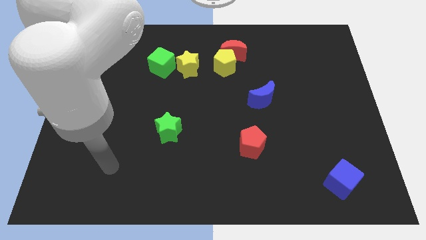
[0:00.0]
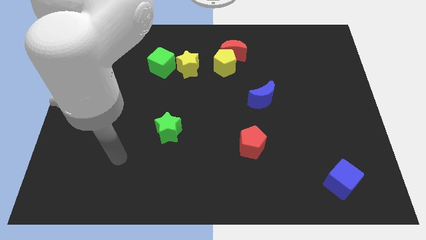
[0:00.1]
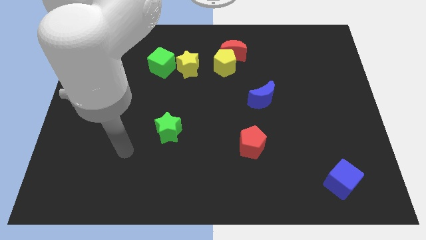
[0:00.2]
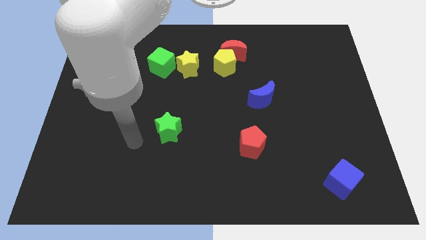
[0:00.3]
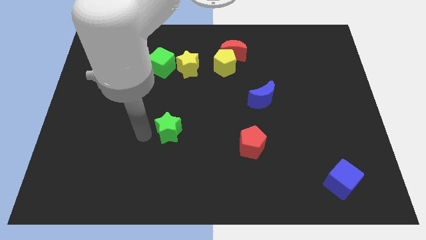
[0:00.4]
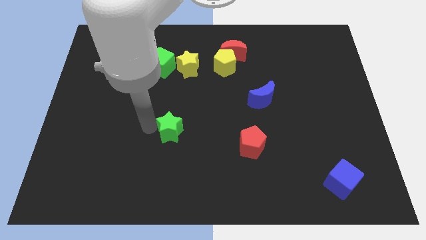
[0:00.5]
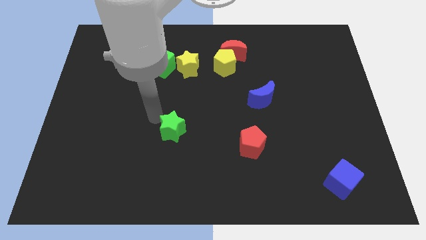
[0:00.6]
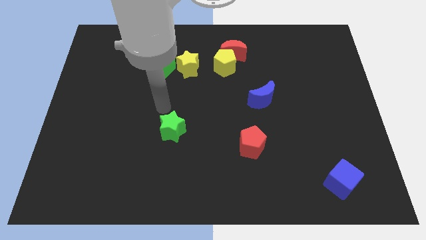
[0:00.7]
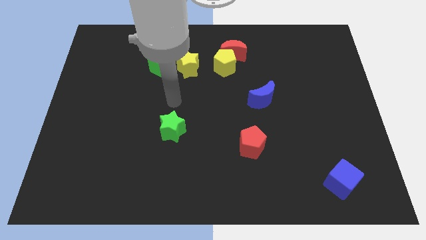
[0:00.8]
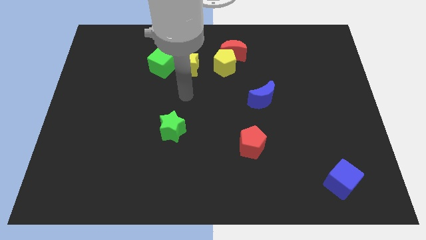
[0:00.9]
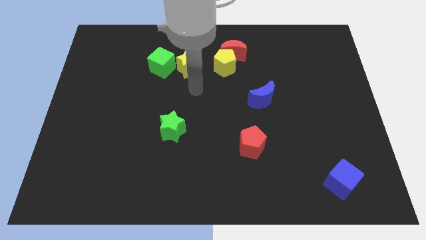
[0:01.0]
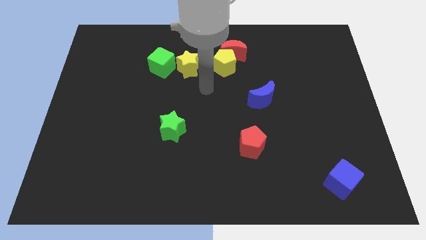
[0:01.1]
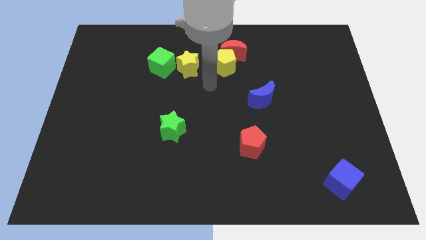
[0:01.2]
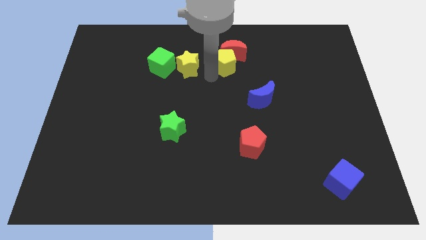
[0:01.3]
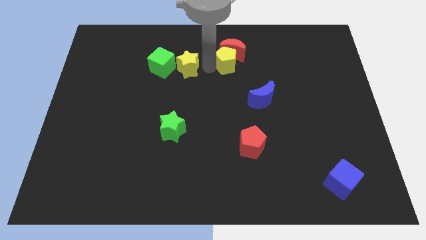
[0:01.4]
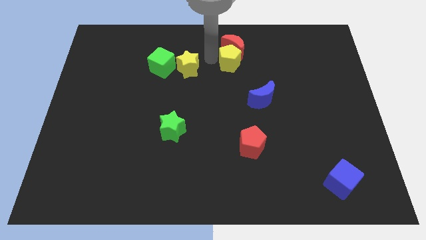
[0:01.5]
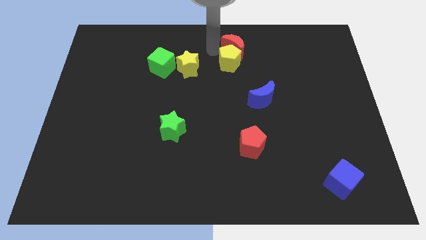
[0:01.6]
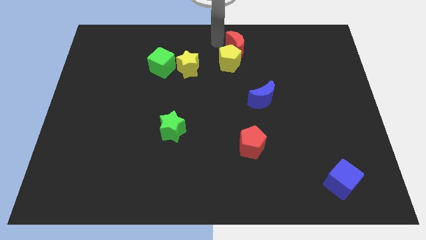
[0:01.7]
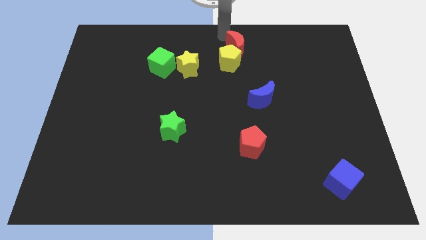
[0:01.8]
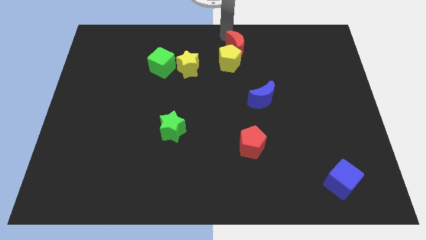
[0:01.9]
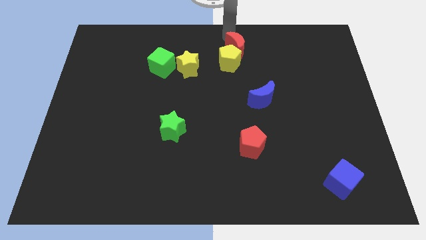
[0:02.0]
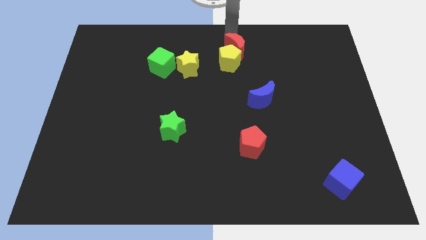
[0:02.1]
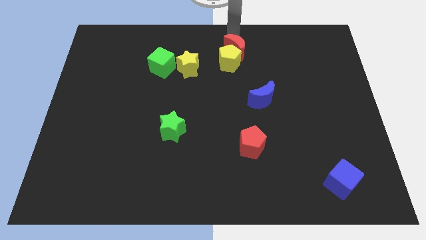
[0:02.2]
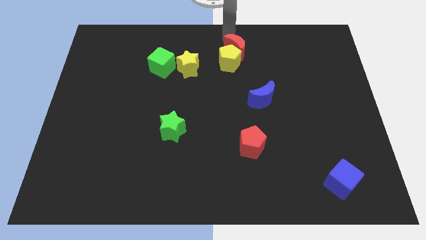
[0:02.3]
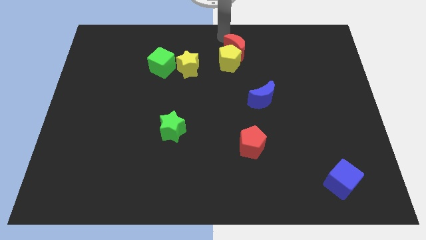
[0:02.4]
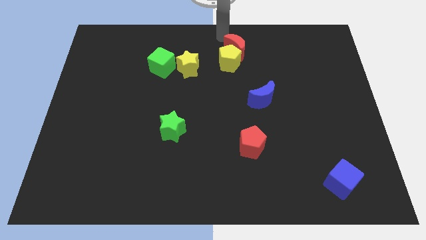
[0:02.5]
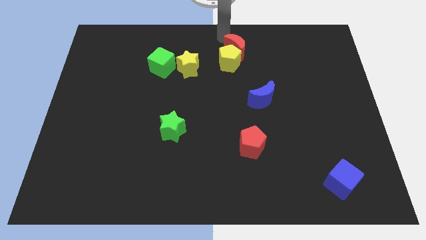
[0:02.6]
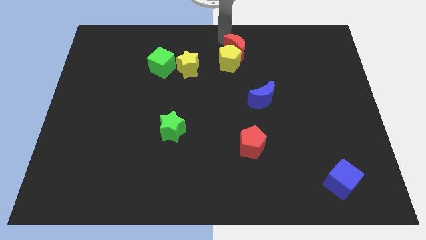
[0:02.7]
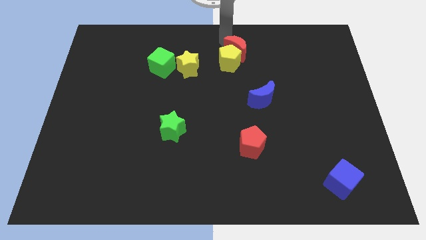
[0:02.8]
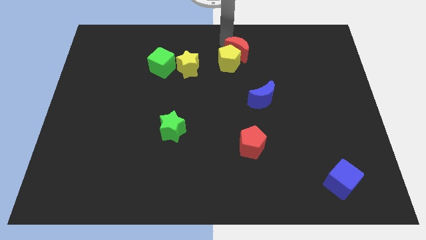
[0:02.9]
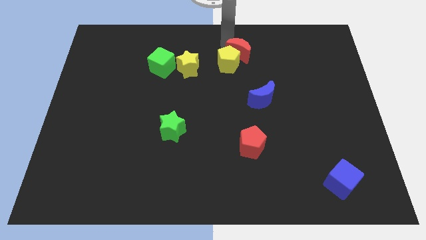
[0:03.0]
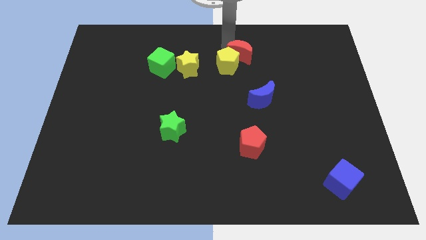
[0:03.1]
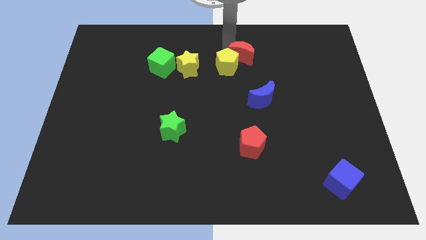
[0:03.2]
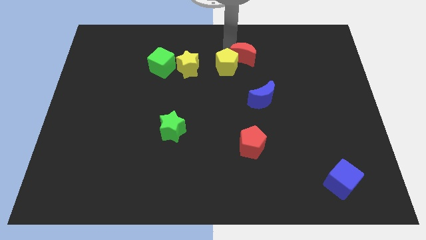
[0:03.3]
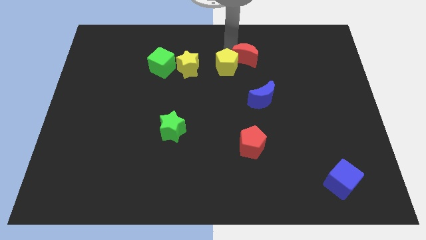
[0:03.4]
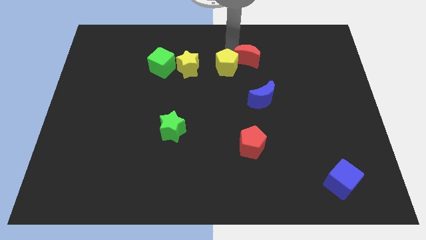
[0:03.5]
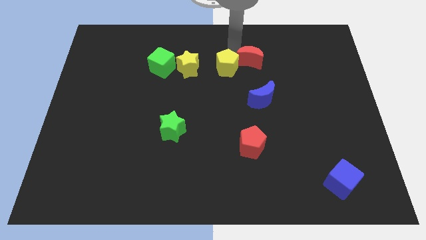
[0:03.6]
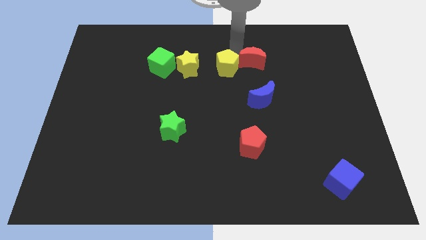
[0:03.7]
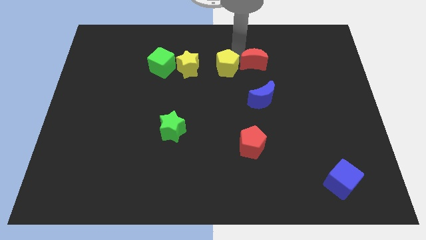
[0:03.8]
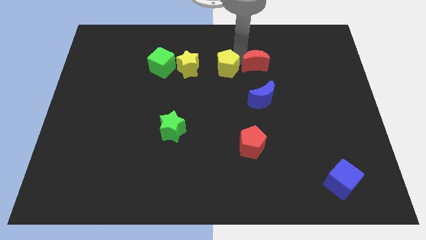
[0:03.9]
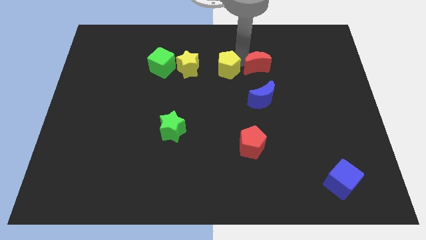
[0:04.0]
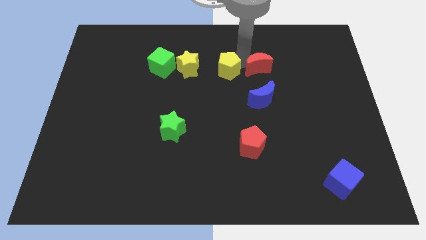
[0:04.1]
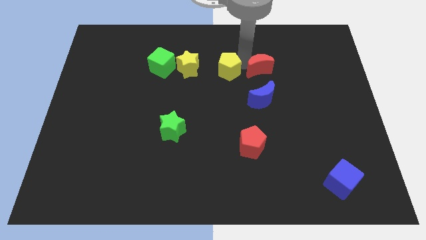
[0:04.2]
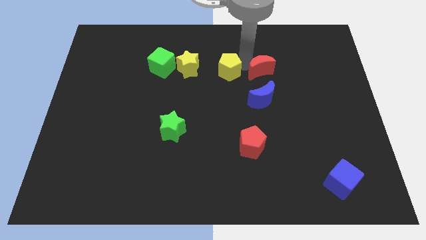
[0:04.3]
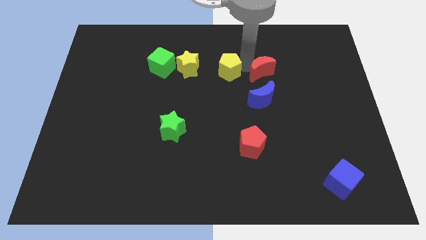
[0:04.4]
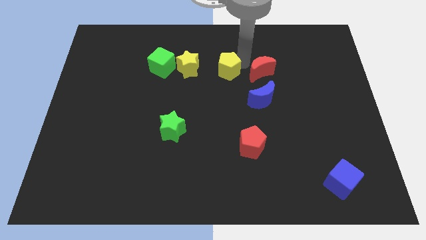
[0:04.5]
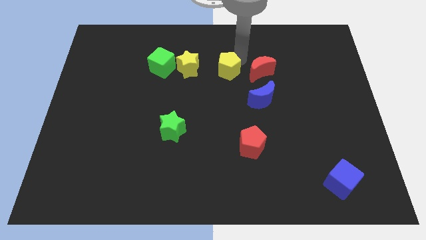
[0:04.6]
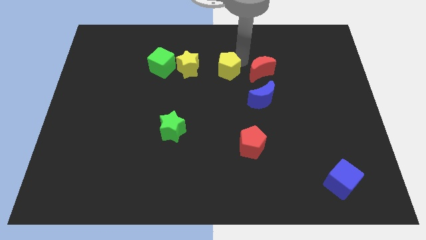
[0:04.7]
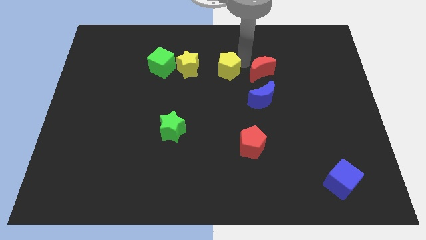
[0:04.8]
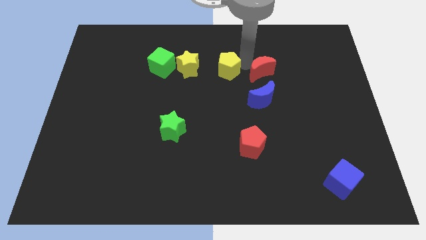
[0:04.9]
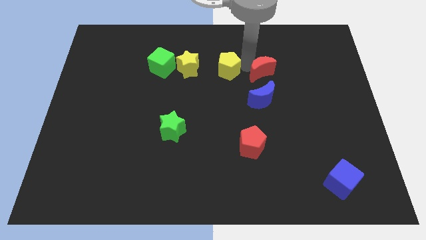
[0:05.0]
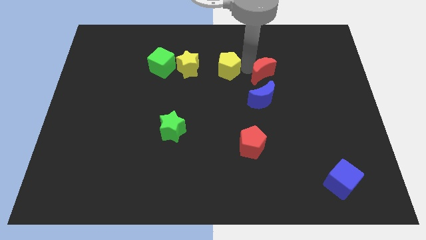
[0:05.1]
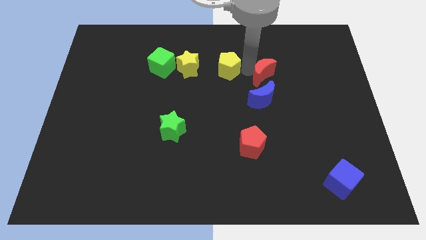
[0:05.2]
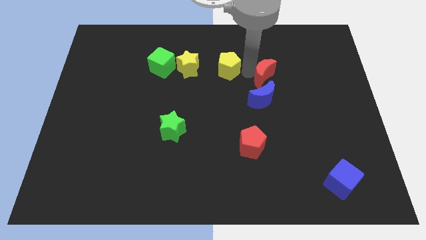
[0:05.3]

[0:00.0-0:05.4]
put the red moon to the top right of the blue moon

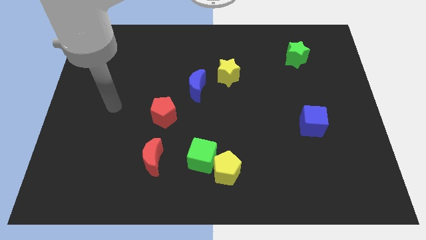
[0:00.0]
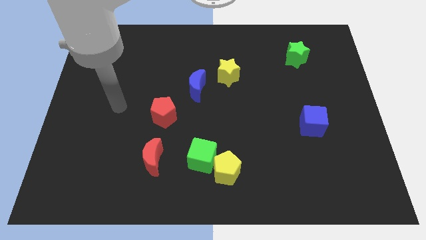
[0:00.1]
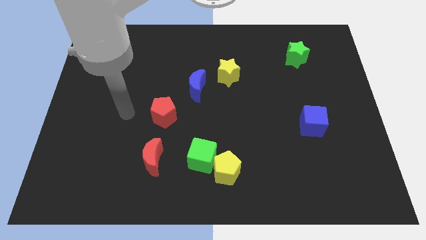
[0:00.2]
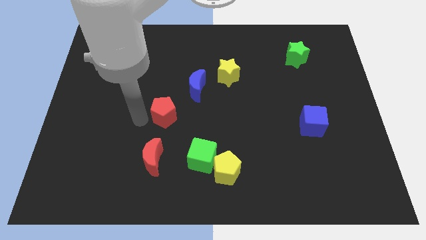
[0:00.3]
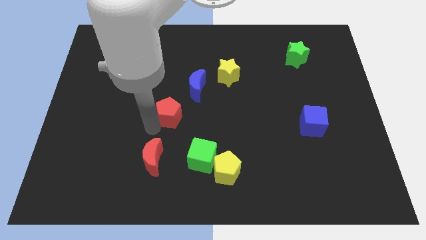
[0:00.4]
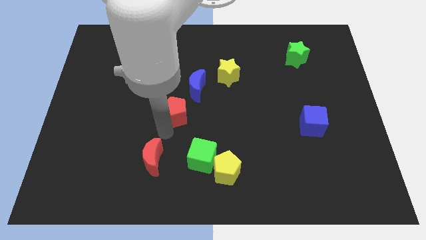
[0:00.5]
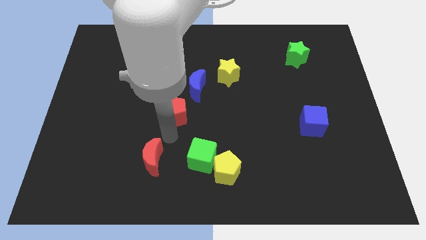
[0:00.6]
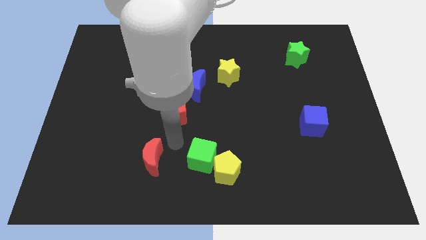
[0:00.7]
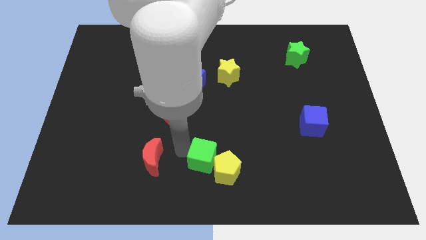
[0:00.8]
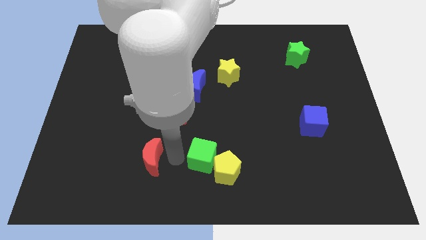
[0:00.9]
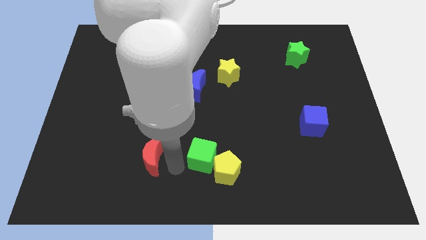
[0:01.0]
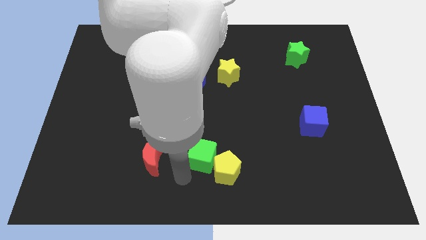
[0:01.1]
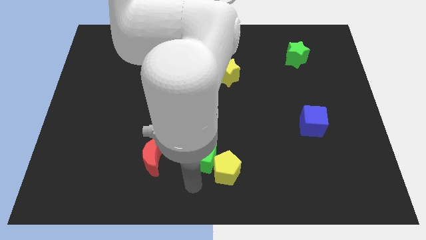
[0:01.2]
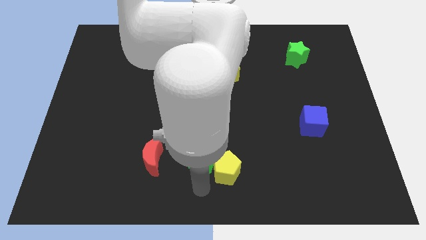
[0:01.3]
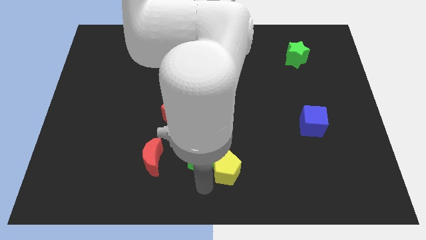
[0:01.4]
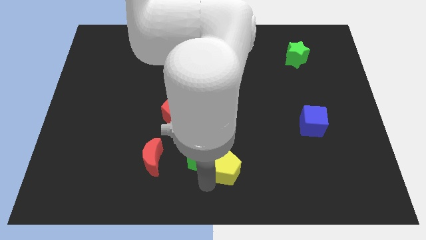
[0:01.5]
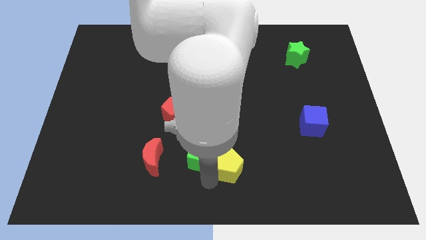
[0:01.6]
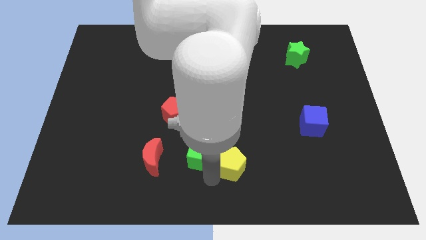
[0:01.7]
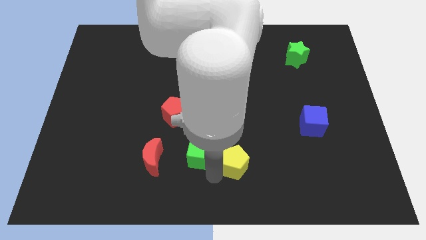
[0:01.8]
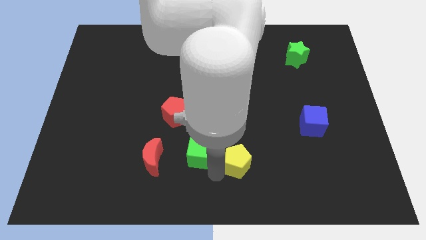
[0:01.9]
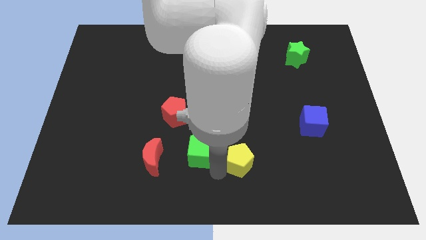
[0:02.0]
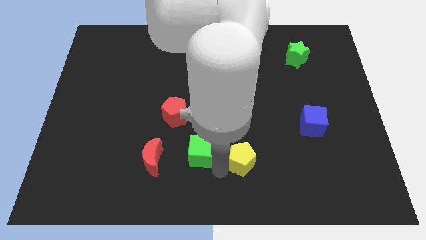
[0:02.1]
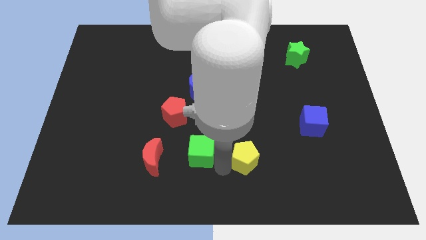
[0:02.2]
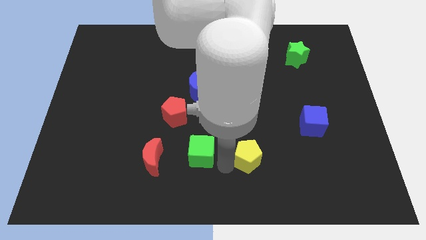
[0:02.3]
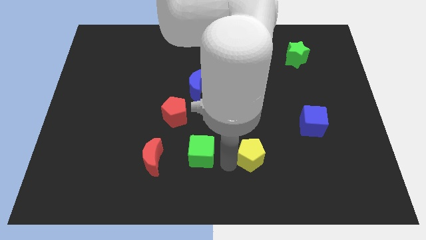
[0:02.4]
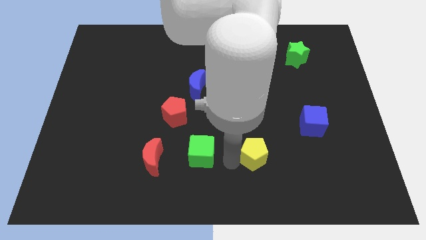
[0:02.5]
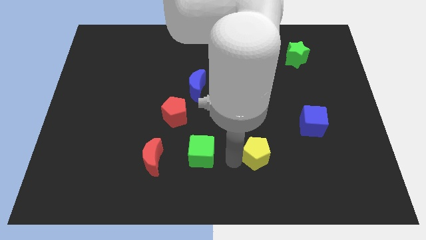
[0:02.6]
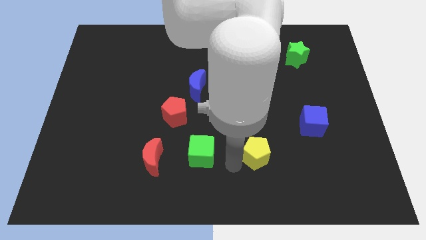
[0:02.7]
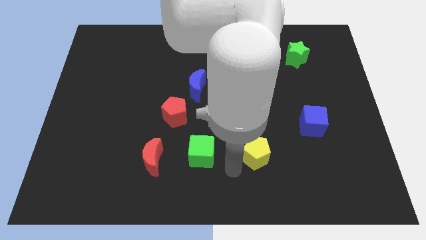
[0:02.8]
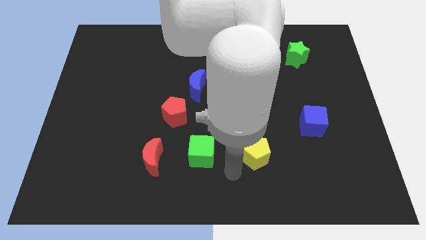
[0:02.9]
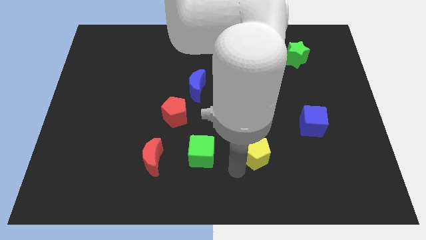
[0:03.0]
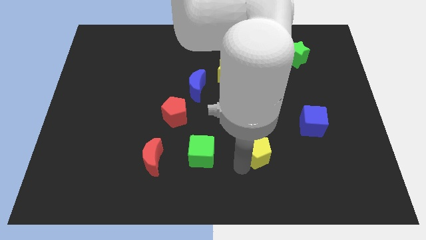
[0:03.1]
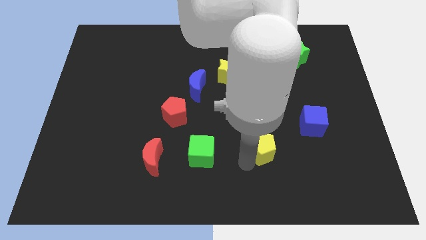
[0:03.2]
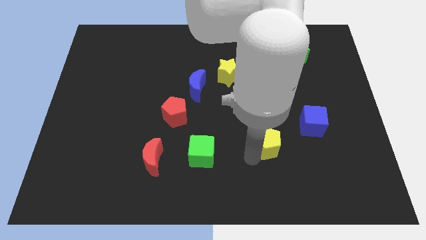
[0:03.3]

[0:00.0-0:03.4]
slide the yellow pentagon diagonally down and to the left of the blue cube
